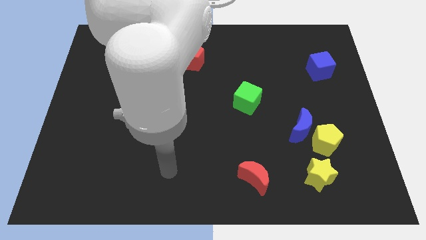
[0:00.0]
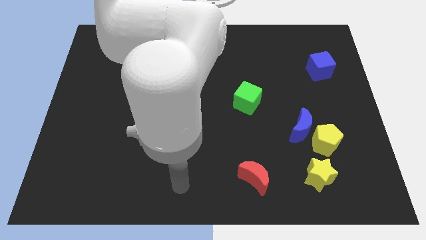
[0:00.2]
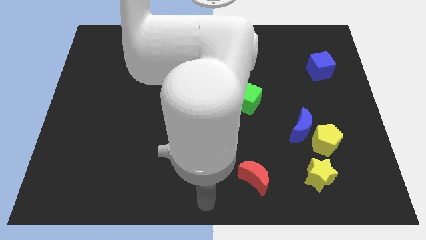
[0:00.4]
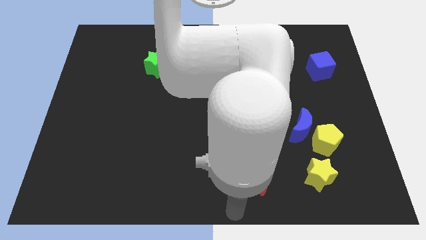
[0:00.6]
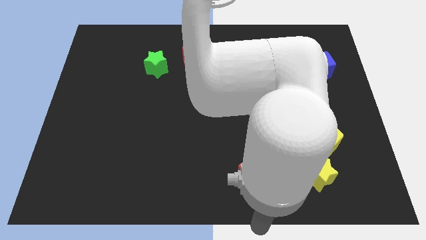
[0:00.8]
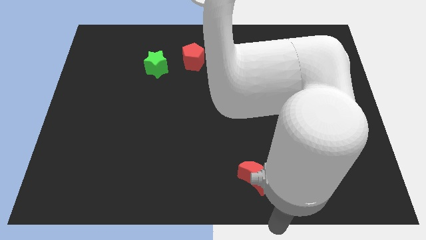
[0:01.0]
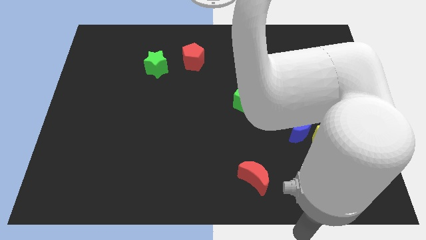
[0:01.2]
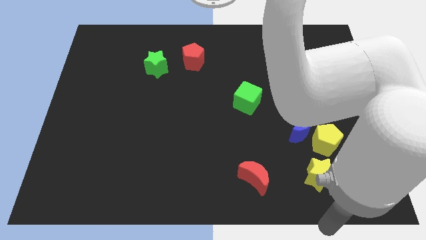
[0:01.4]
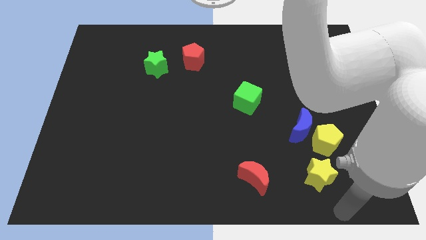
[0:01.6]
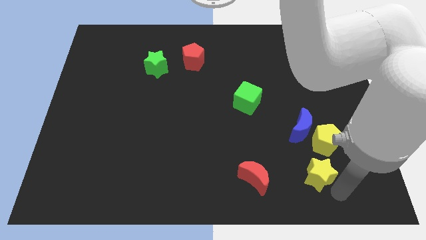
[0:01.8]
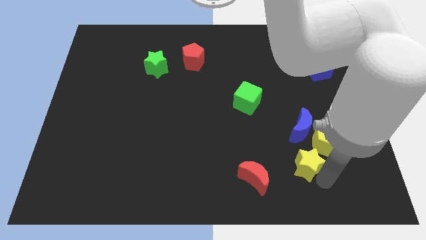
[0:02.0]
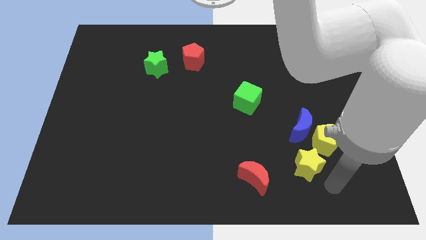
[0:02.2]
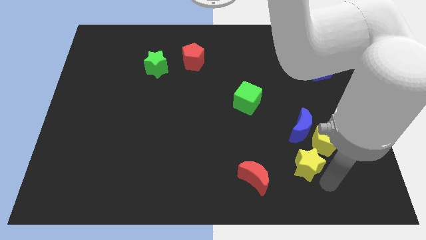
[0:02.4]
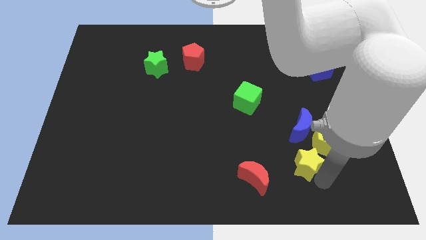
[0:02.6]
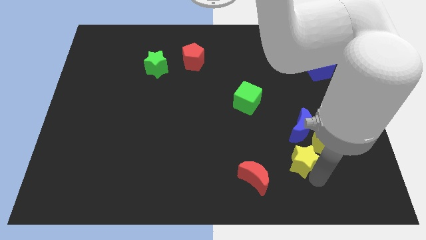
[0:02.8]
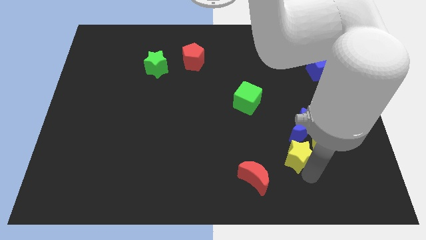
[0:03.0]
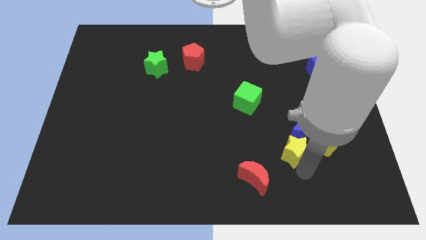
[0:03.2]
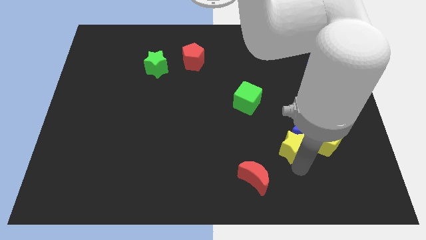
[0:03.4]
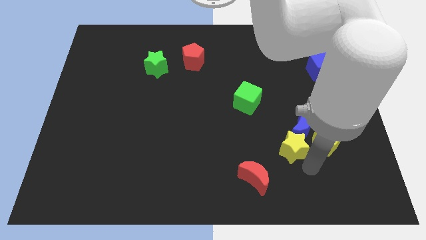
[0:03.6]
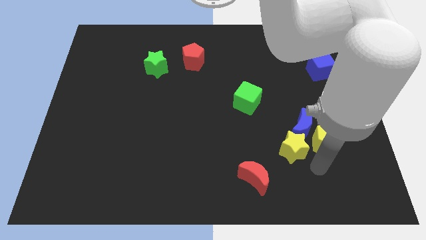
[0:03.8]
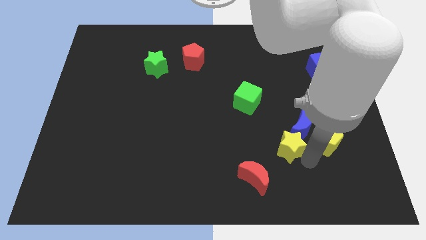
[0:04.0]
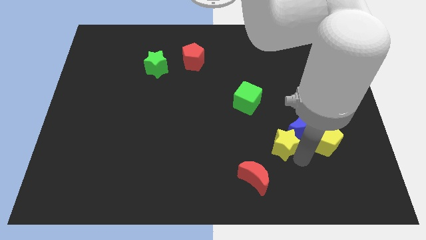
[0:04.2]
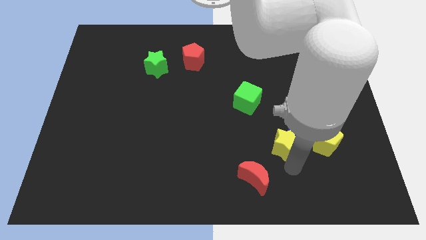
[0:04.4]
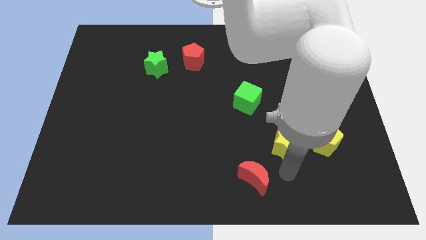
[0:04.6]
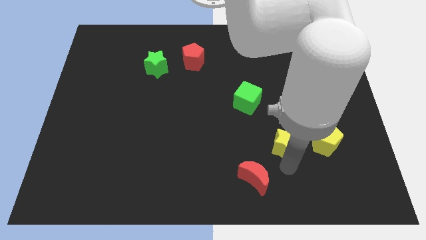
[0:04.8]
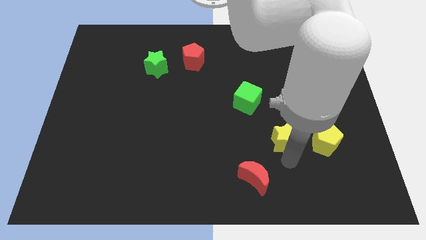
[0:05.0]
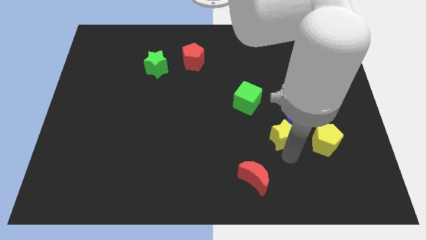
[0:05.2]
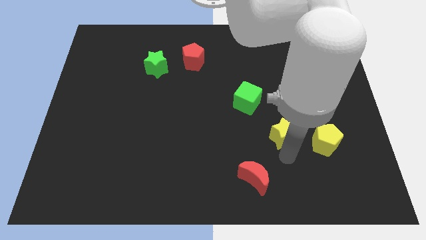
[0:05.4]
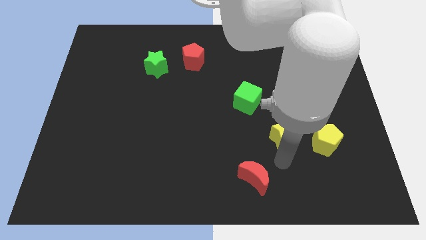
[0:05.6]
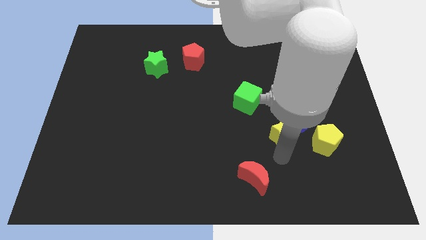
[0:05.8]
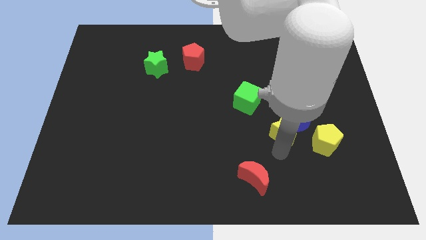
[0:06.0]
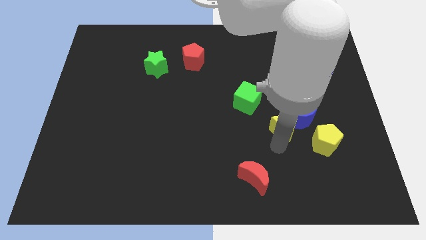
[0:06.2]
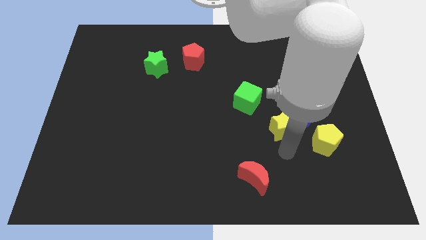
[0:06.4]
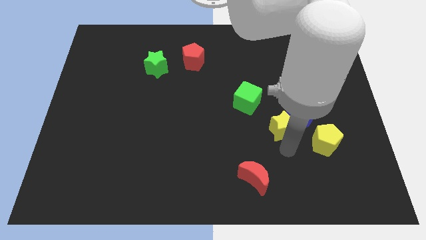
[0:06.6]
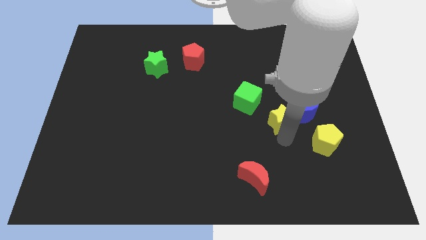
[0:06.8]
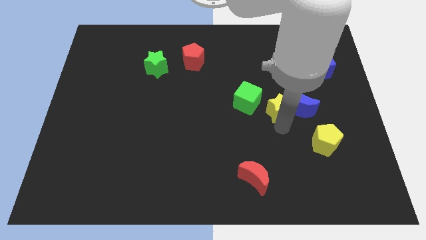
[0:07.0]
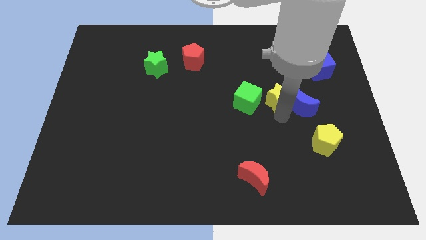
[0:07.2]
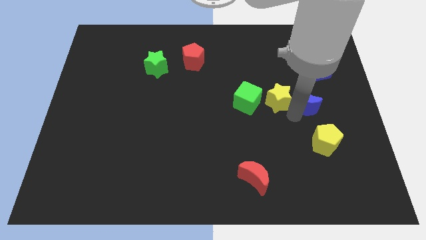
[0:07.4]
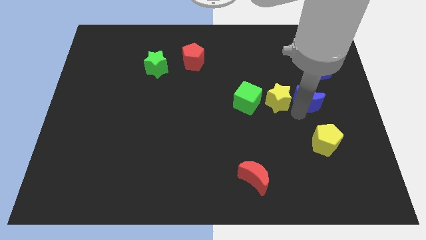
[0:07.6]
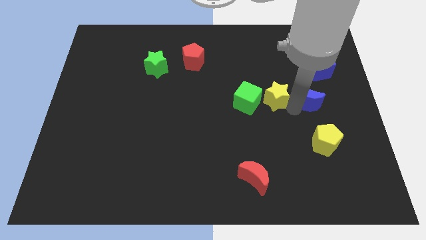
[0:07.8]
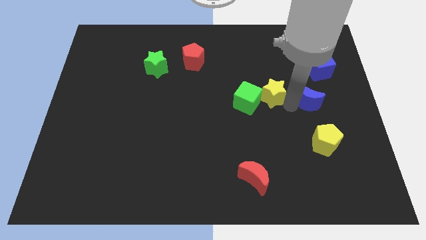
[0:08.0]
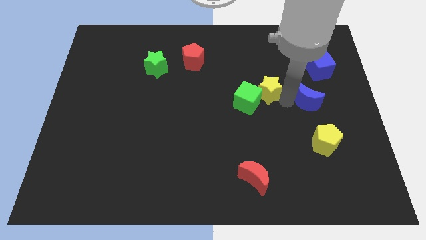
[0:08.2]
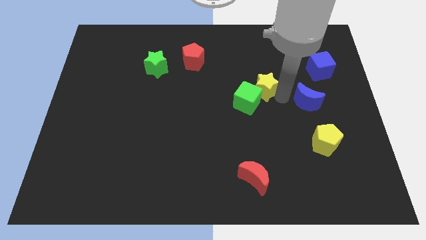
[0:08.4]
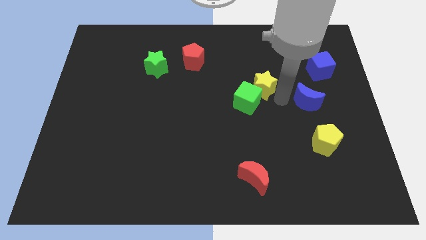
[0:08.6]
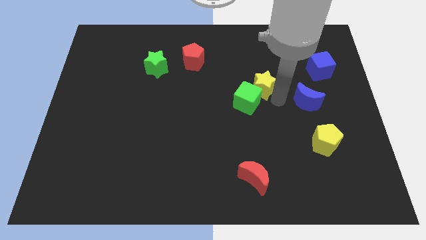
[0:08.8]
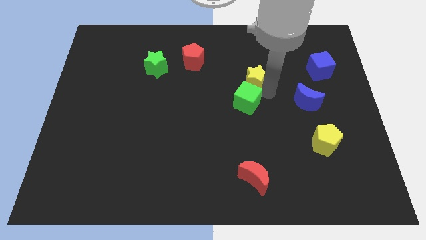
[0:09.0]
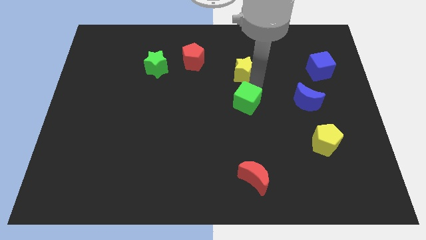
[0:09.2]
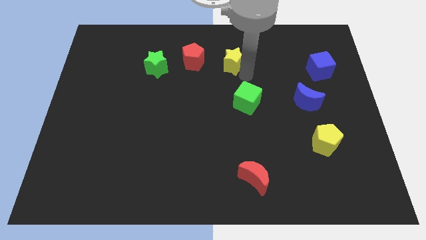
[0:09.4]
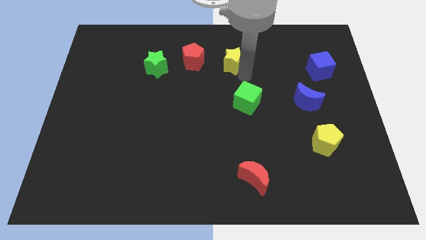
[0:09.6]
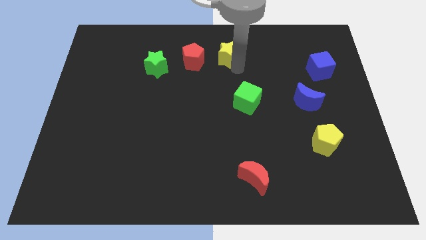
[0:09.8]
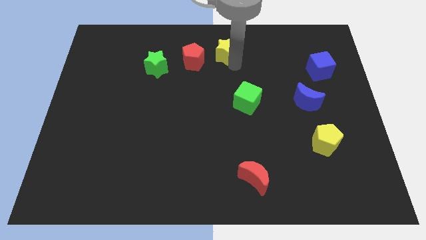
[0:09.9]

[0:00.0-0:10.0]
push the yellow star to the top side

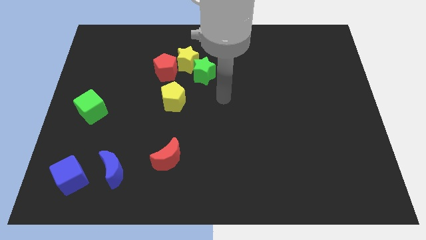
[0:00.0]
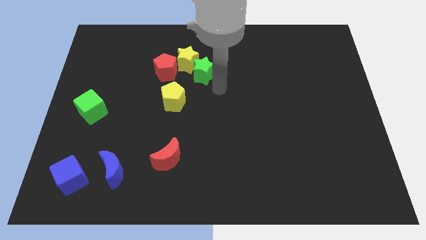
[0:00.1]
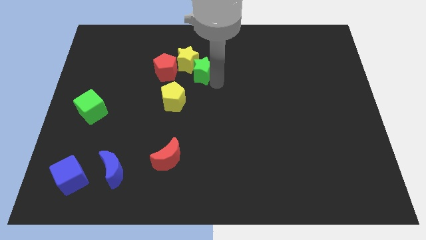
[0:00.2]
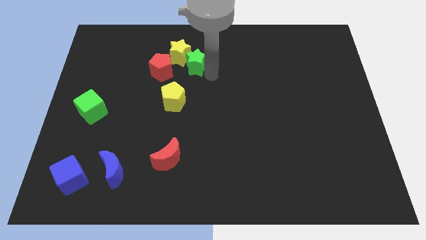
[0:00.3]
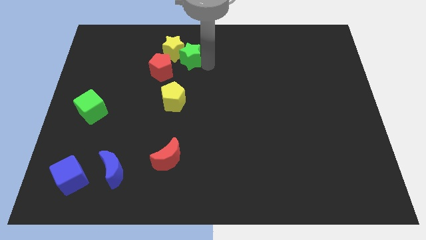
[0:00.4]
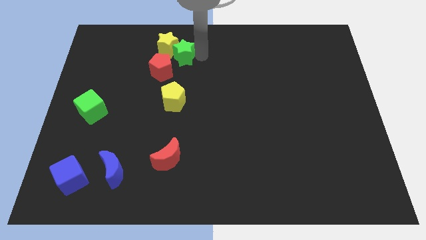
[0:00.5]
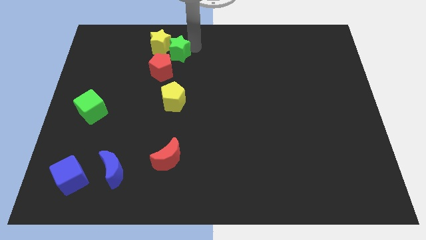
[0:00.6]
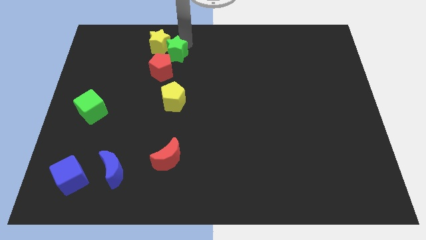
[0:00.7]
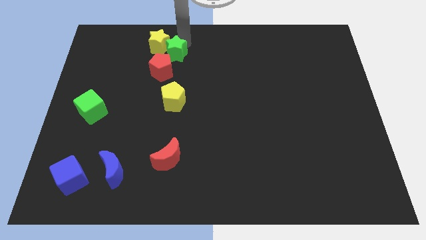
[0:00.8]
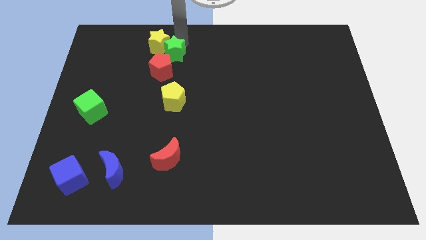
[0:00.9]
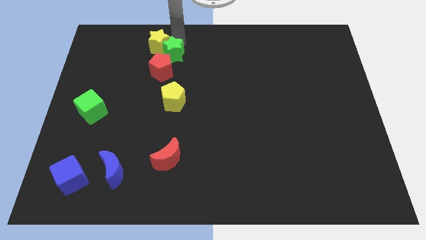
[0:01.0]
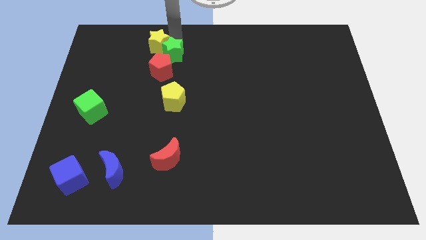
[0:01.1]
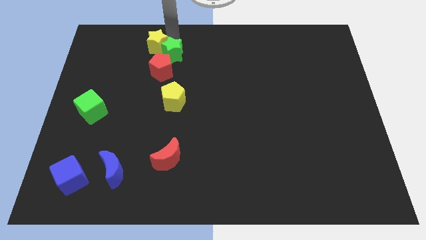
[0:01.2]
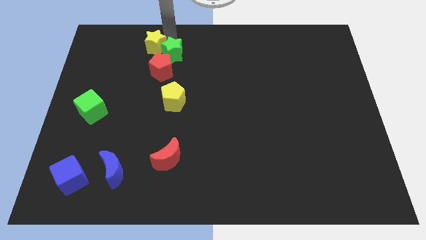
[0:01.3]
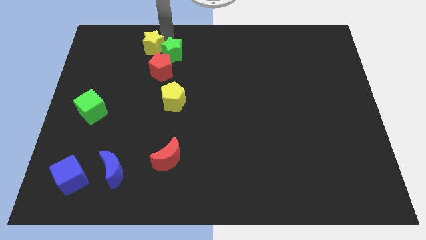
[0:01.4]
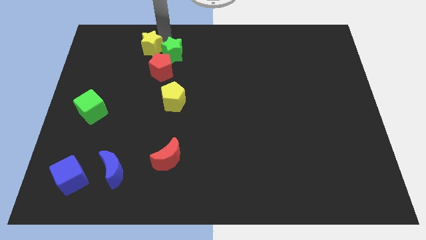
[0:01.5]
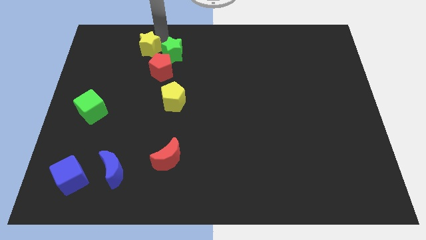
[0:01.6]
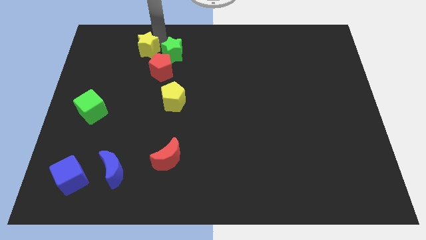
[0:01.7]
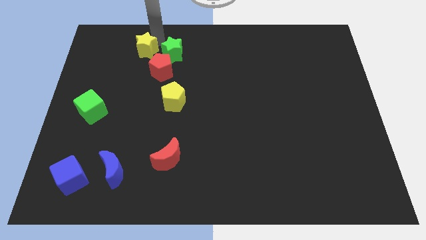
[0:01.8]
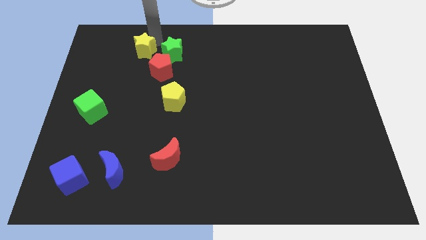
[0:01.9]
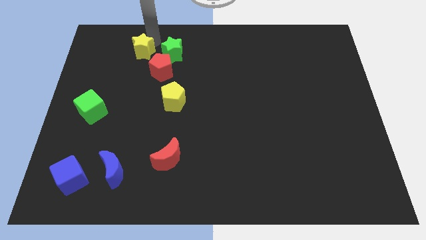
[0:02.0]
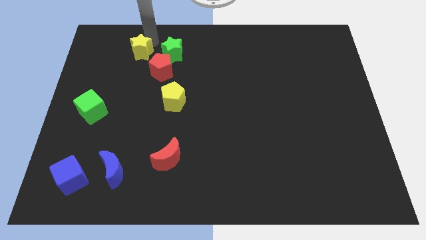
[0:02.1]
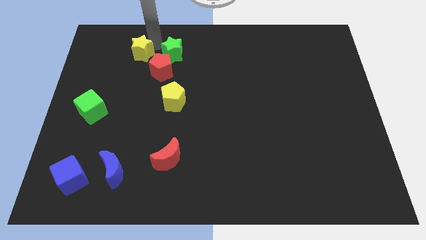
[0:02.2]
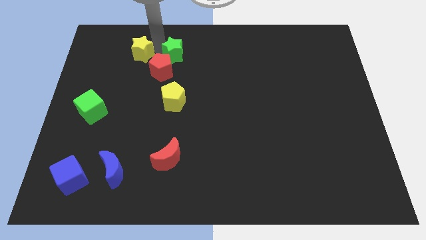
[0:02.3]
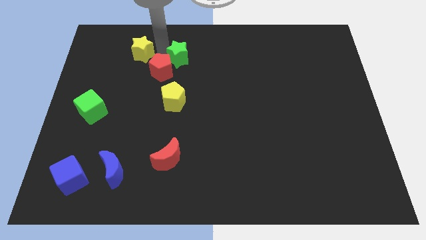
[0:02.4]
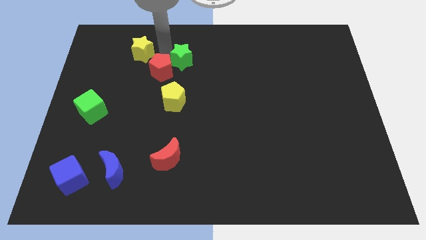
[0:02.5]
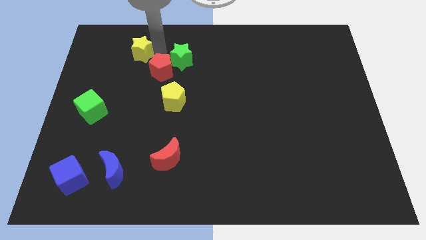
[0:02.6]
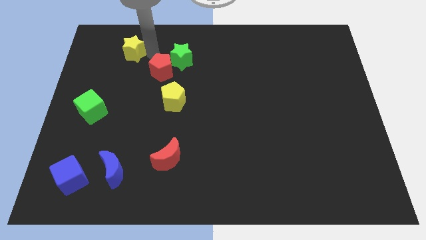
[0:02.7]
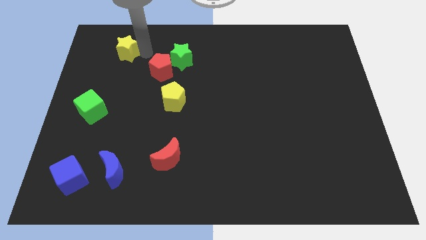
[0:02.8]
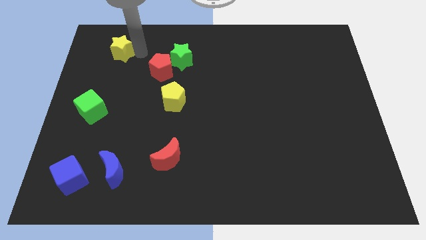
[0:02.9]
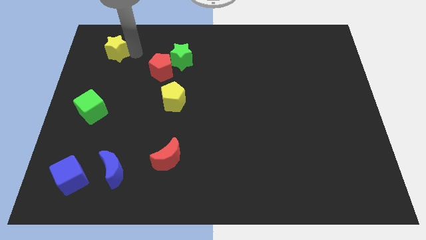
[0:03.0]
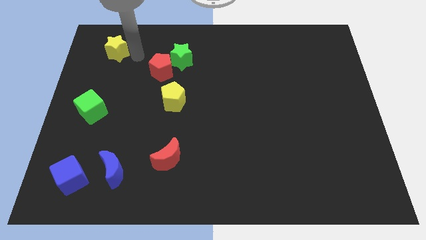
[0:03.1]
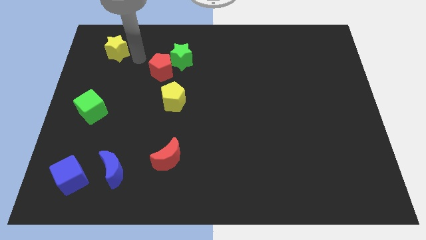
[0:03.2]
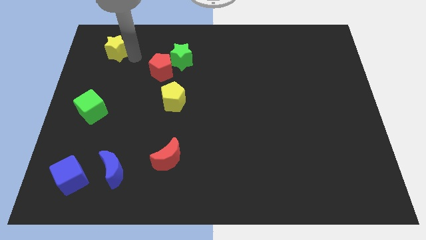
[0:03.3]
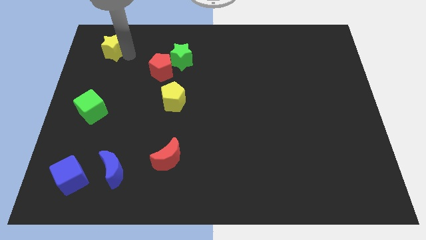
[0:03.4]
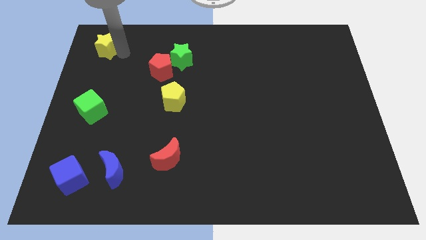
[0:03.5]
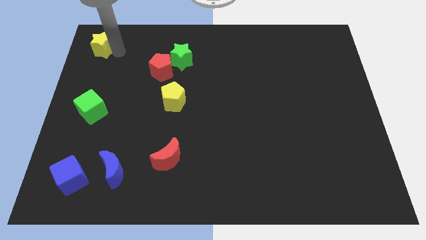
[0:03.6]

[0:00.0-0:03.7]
move the yellow star to the upper left corner
